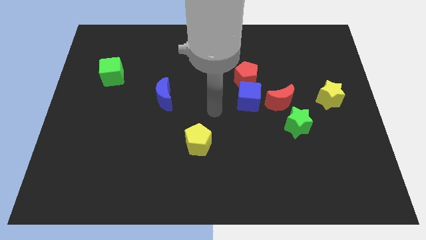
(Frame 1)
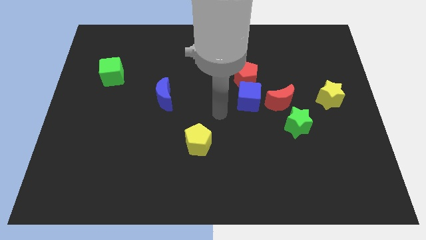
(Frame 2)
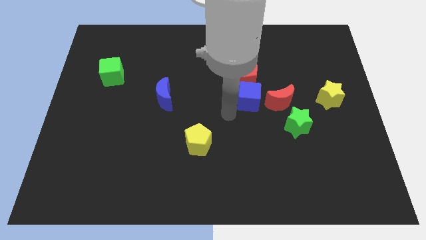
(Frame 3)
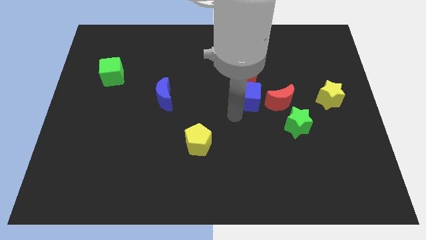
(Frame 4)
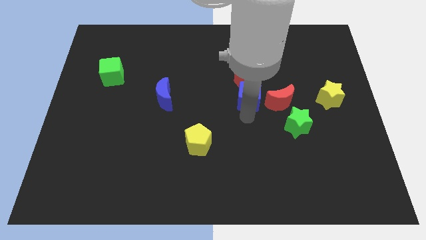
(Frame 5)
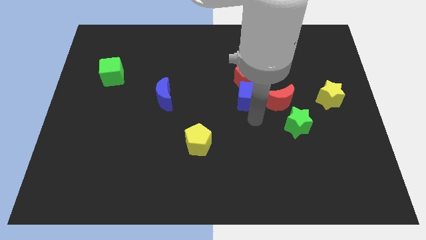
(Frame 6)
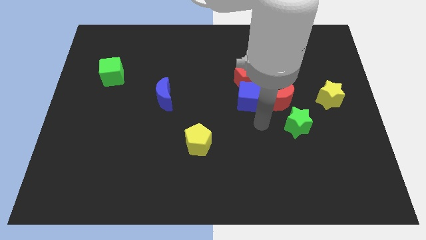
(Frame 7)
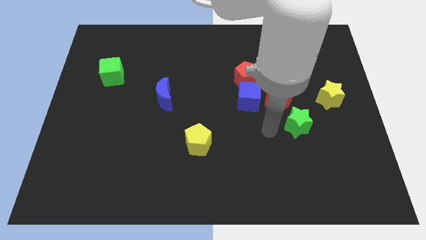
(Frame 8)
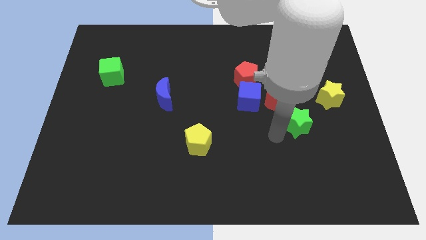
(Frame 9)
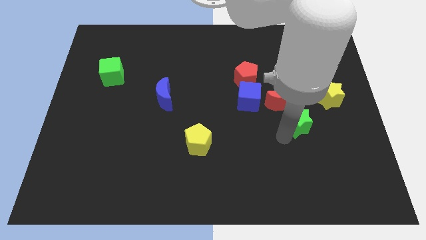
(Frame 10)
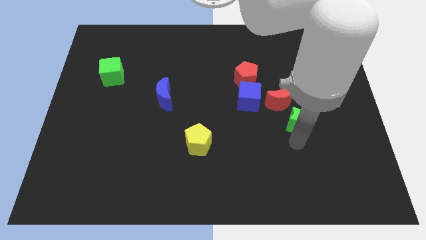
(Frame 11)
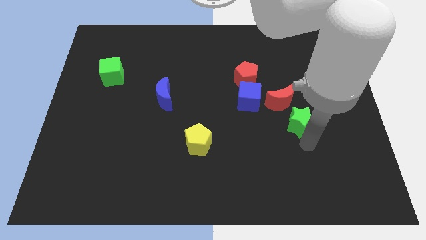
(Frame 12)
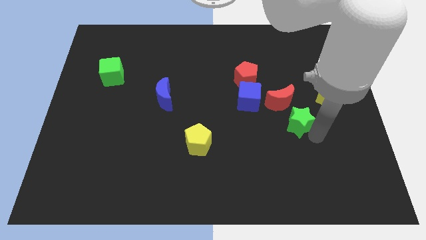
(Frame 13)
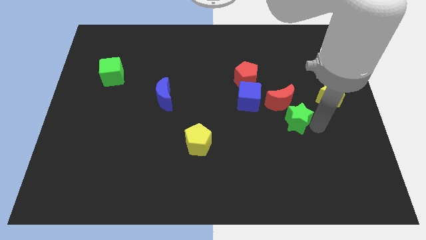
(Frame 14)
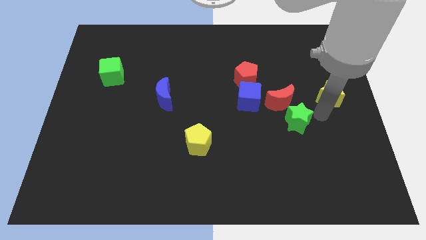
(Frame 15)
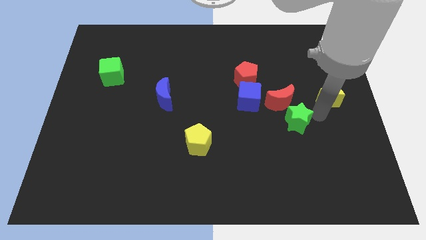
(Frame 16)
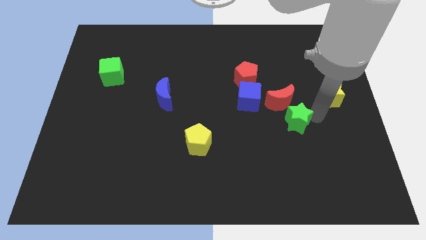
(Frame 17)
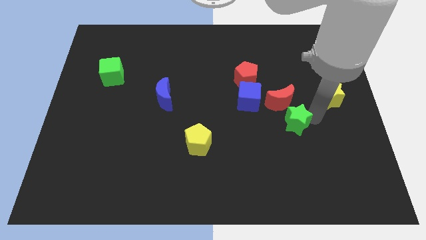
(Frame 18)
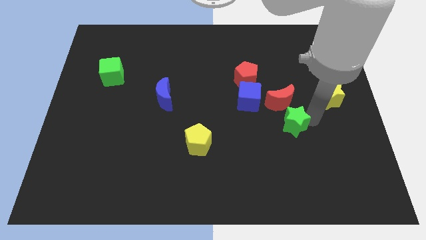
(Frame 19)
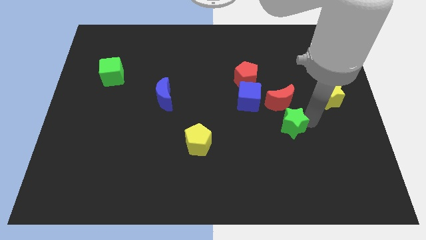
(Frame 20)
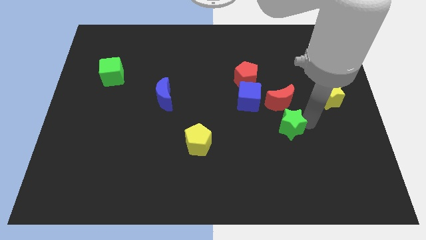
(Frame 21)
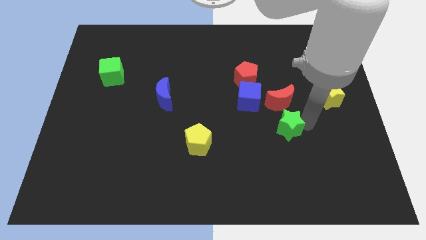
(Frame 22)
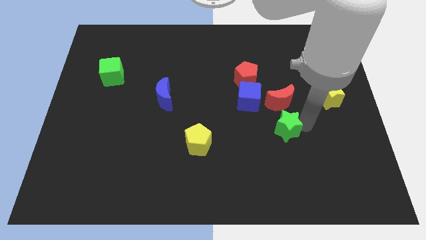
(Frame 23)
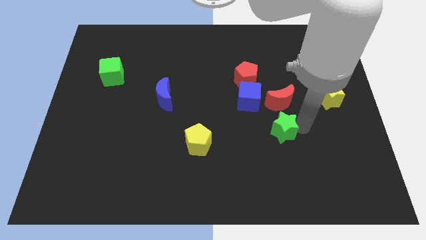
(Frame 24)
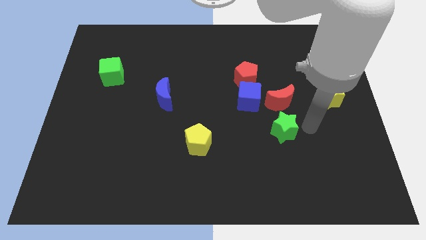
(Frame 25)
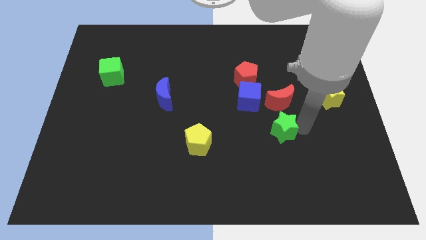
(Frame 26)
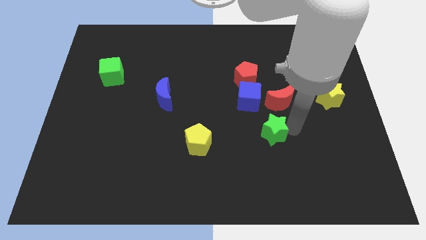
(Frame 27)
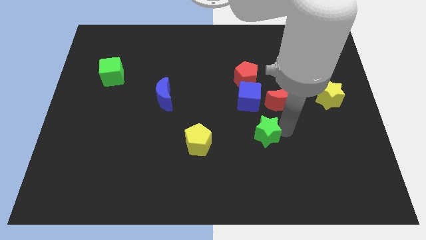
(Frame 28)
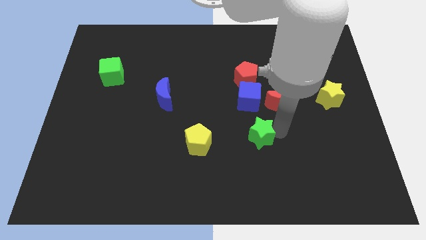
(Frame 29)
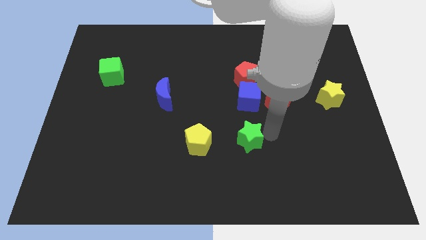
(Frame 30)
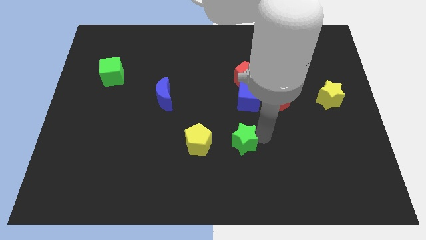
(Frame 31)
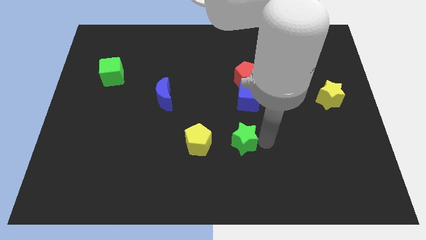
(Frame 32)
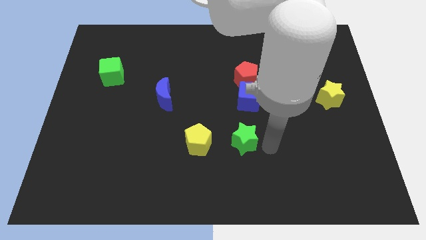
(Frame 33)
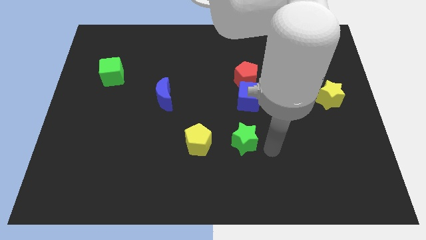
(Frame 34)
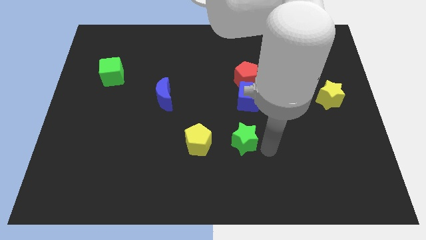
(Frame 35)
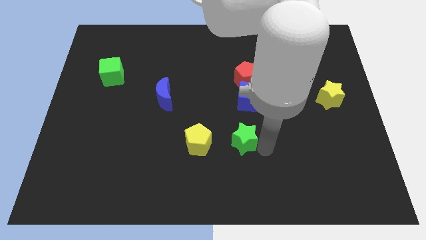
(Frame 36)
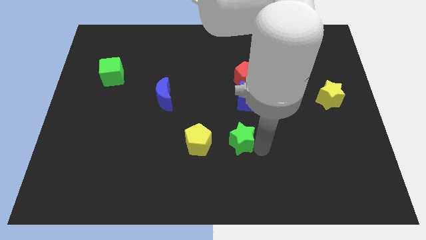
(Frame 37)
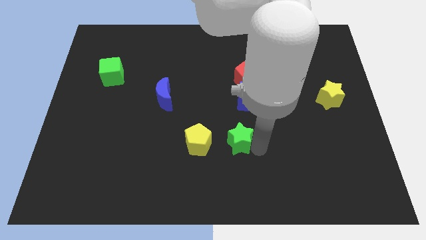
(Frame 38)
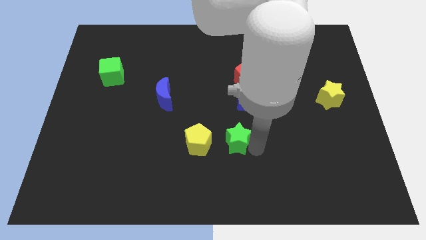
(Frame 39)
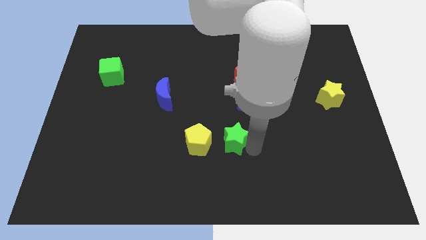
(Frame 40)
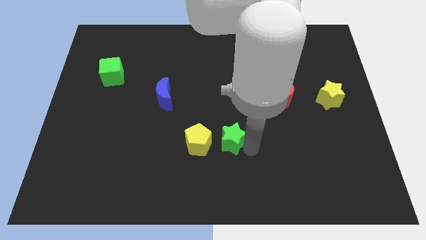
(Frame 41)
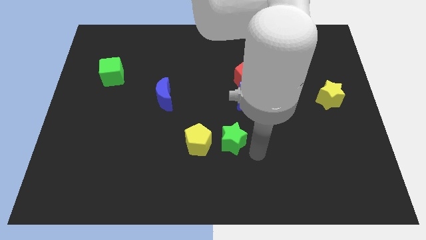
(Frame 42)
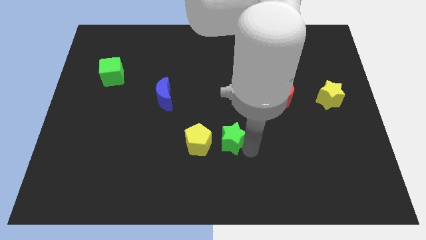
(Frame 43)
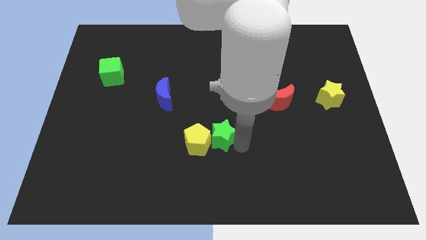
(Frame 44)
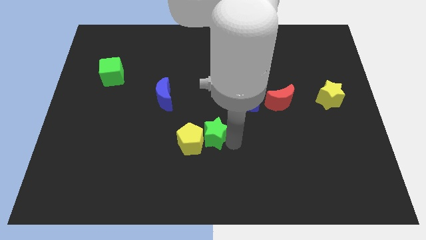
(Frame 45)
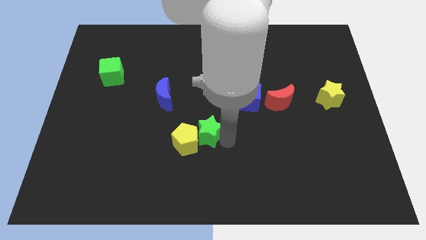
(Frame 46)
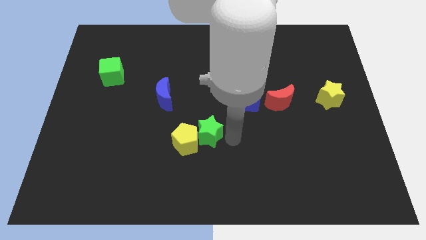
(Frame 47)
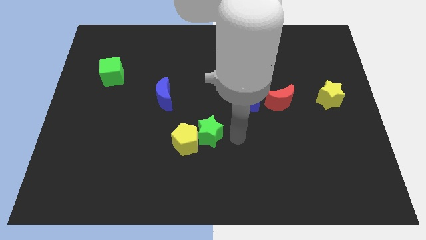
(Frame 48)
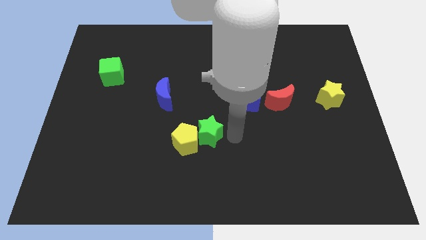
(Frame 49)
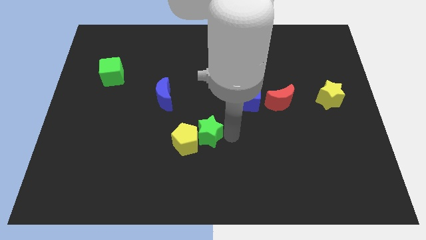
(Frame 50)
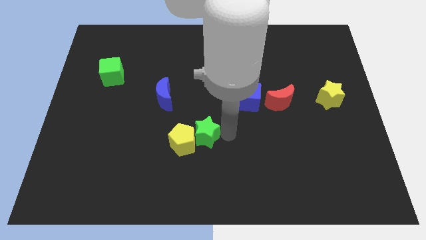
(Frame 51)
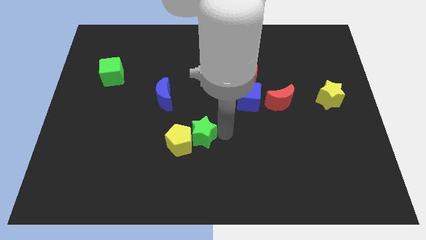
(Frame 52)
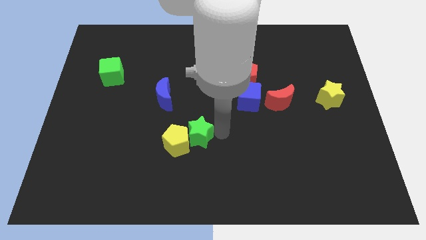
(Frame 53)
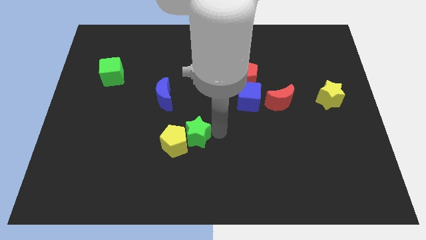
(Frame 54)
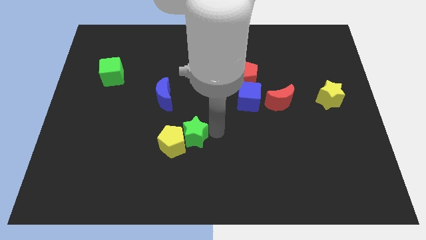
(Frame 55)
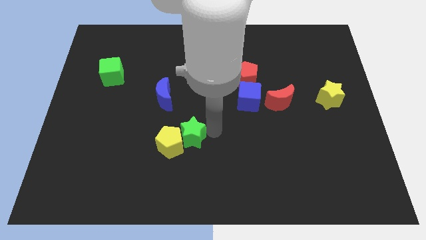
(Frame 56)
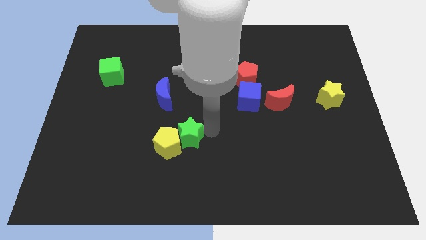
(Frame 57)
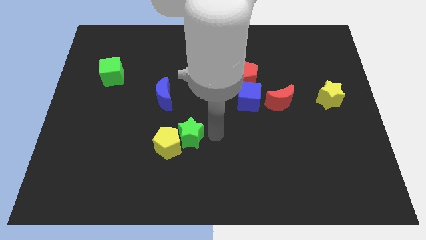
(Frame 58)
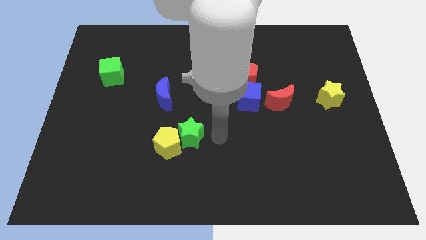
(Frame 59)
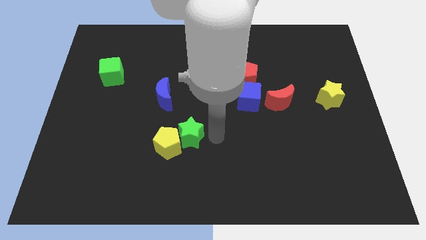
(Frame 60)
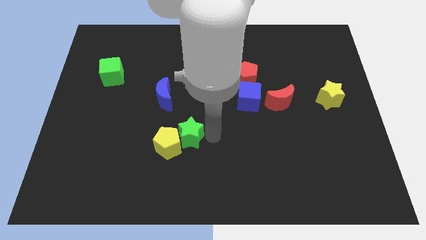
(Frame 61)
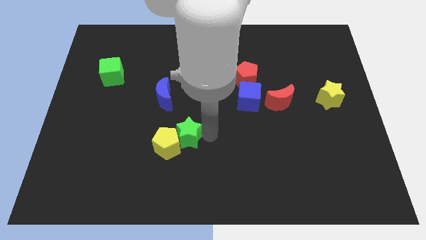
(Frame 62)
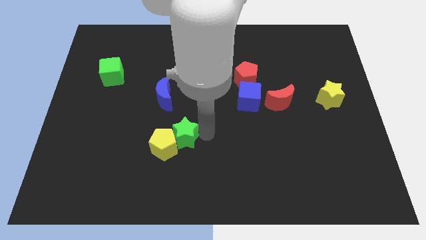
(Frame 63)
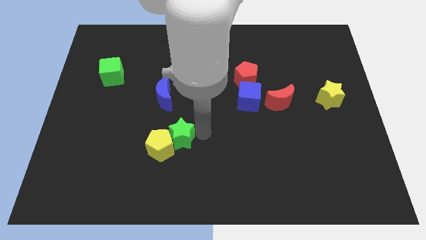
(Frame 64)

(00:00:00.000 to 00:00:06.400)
put the green star to the bottom of the blue moon

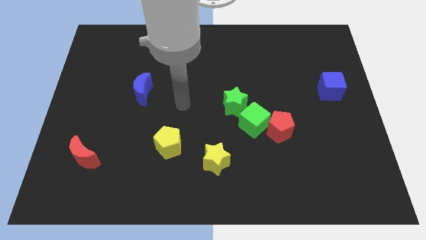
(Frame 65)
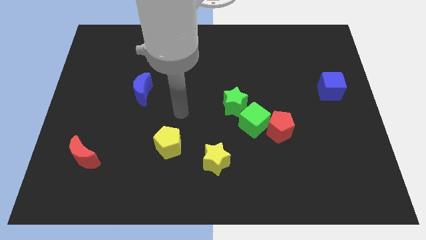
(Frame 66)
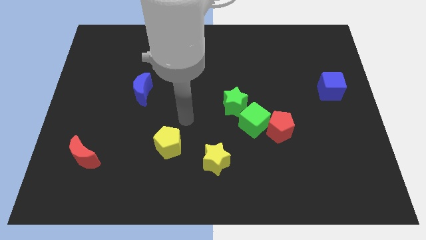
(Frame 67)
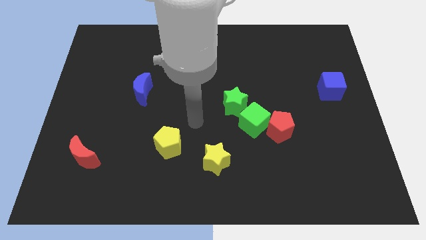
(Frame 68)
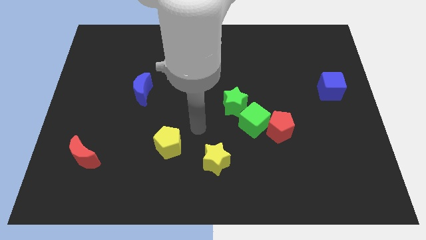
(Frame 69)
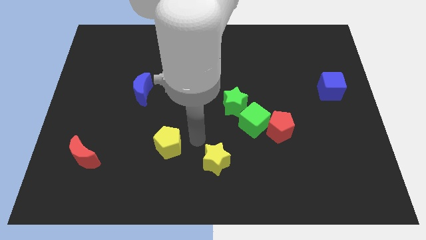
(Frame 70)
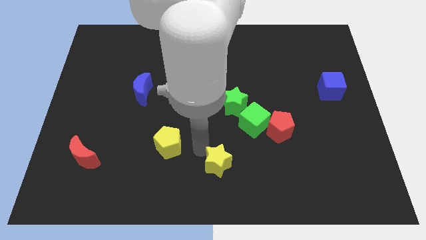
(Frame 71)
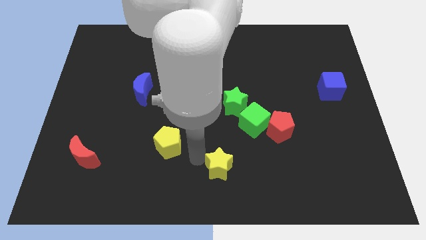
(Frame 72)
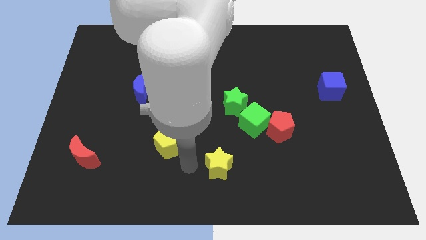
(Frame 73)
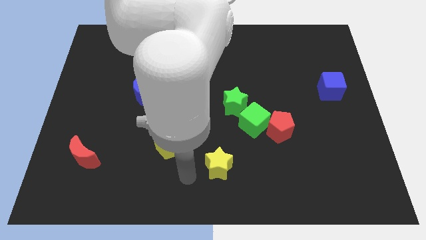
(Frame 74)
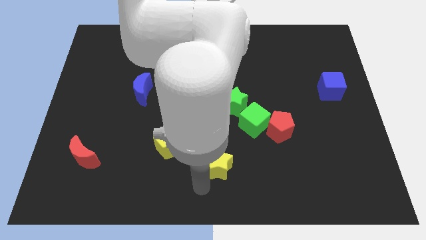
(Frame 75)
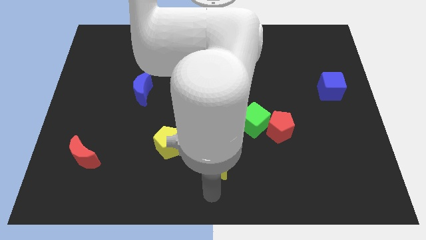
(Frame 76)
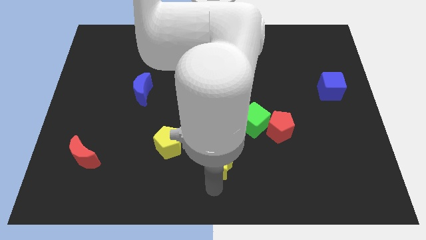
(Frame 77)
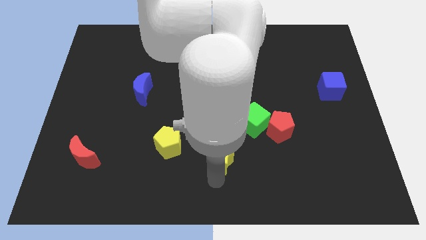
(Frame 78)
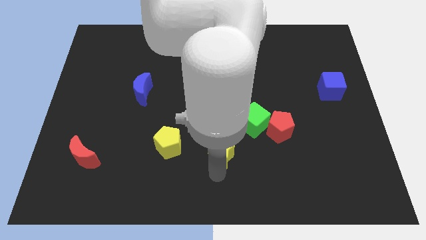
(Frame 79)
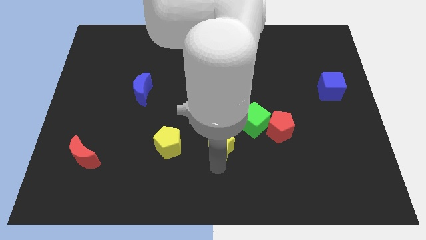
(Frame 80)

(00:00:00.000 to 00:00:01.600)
push the yellow star left of the red pentagon
